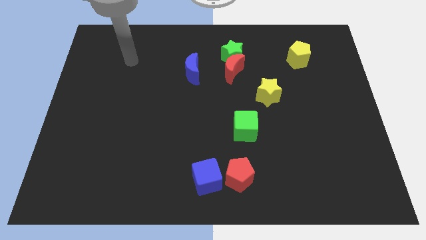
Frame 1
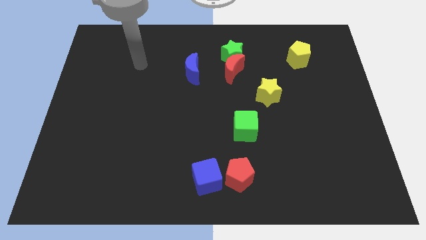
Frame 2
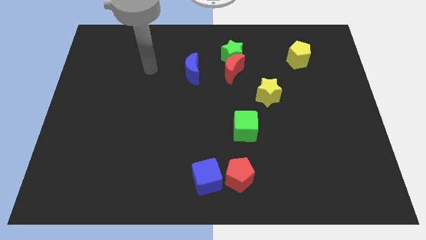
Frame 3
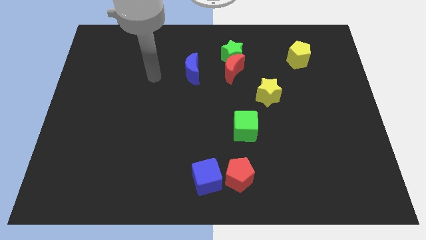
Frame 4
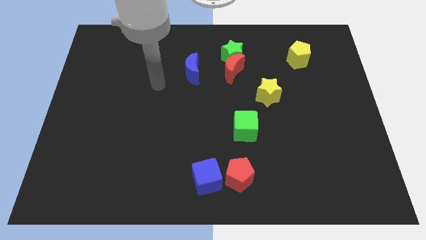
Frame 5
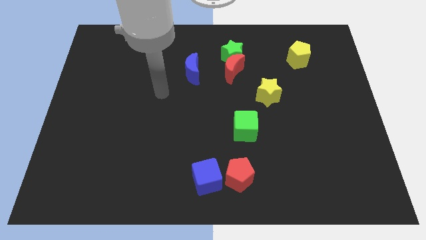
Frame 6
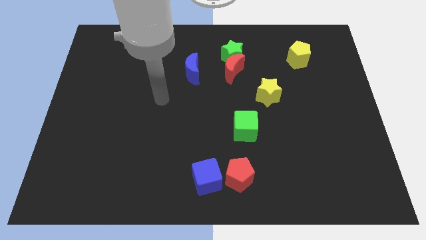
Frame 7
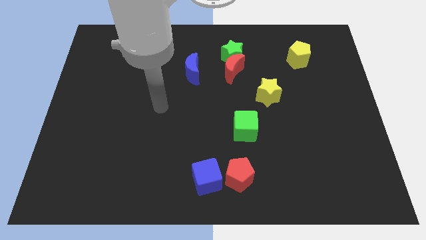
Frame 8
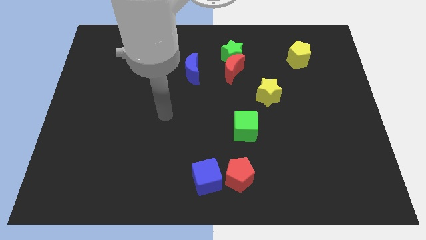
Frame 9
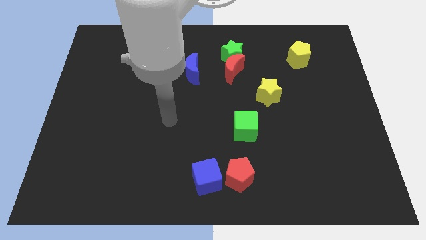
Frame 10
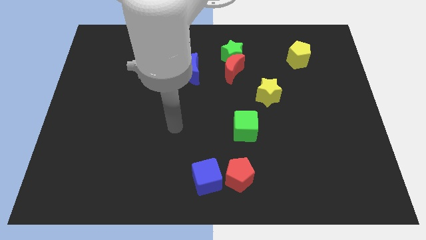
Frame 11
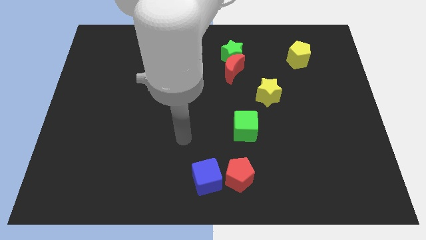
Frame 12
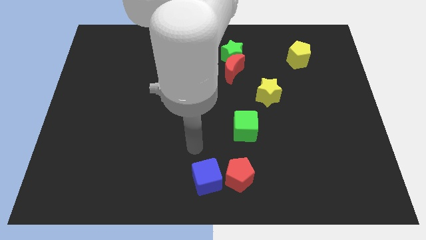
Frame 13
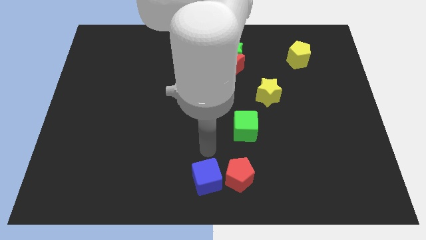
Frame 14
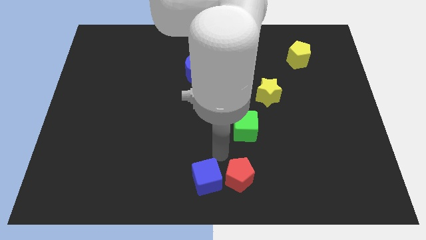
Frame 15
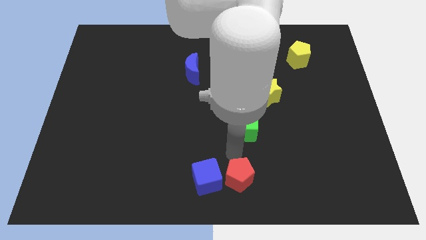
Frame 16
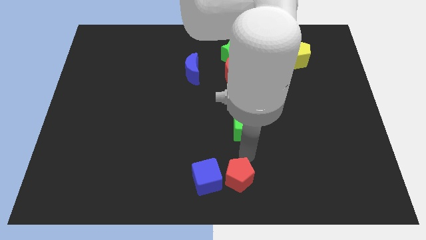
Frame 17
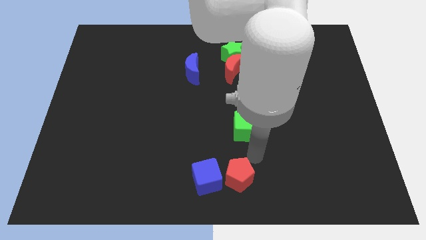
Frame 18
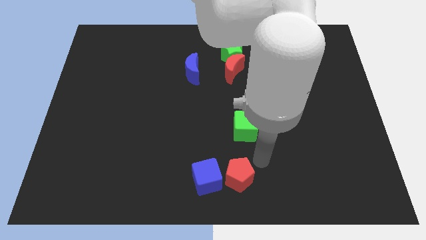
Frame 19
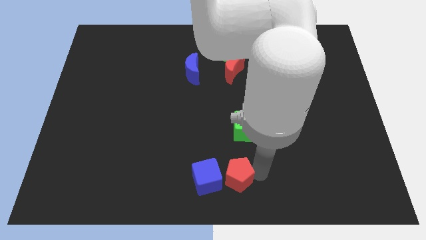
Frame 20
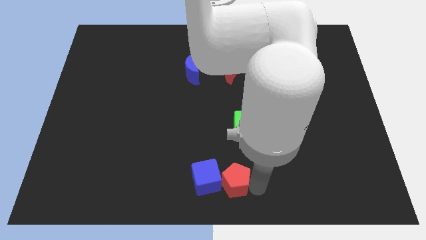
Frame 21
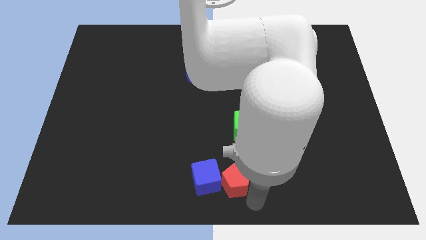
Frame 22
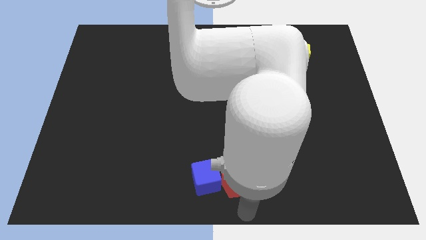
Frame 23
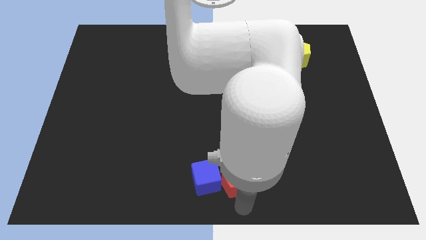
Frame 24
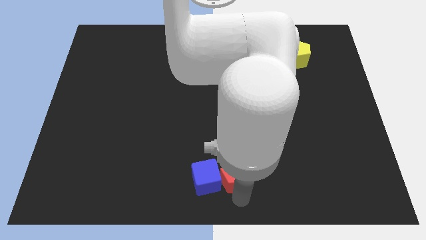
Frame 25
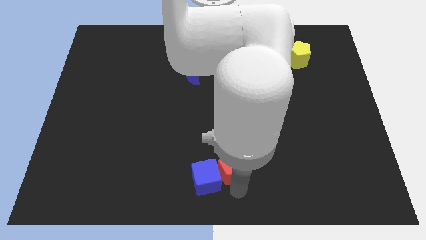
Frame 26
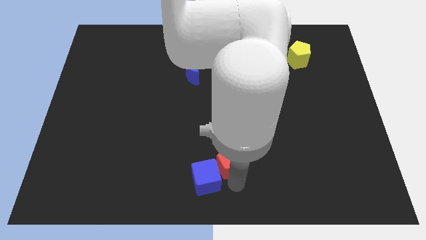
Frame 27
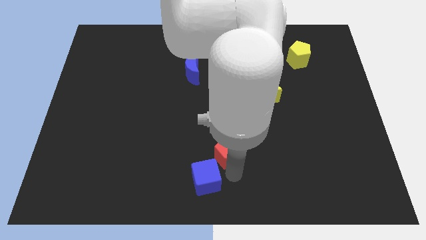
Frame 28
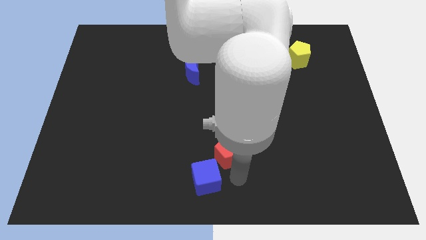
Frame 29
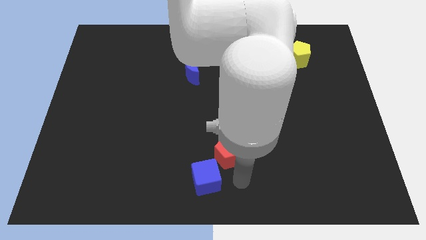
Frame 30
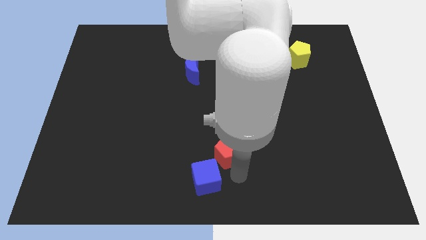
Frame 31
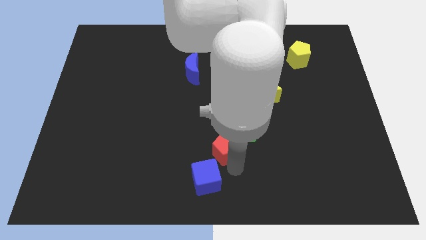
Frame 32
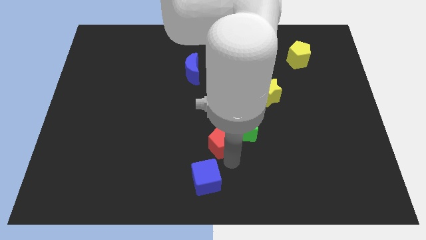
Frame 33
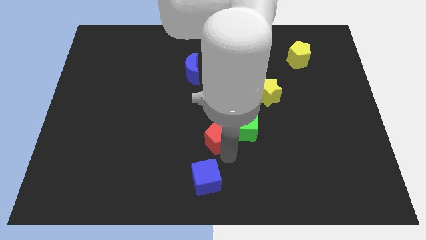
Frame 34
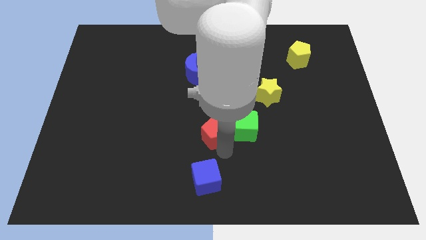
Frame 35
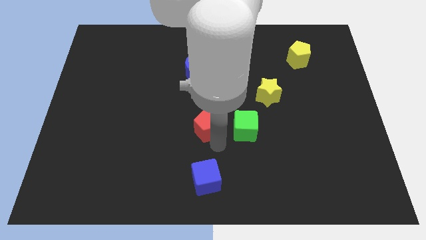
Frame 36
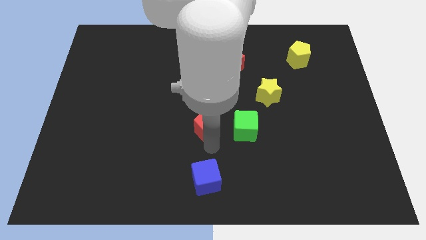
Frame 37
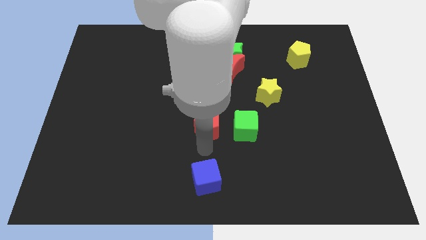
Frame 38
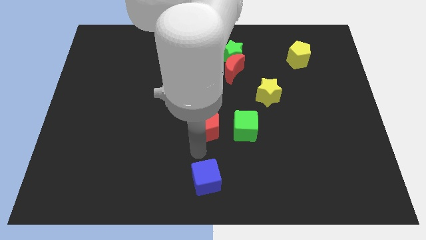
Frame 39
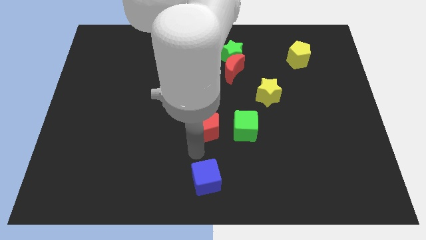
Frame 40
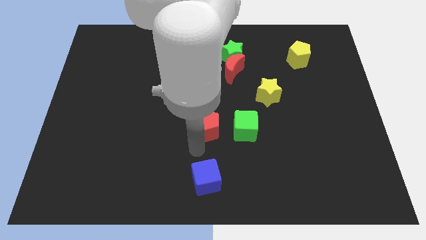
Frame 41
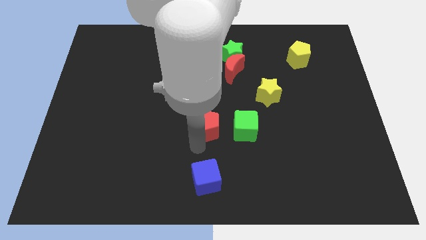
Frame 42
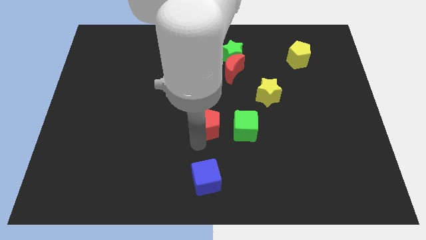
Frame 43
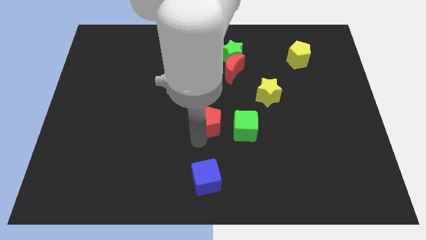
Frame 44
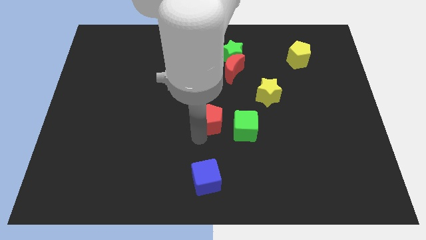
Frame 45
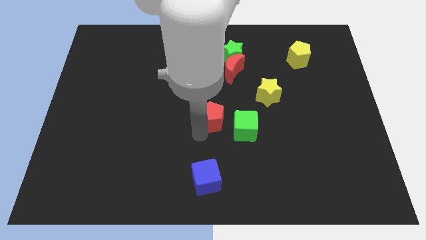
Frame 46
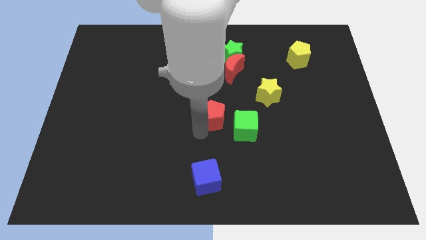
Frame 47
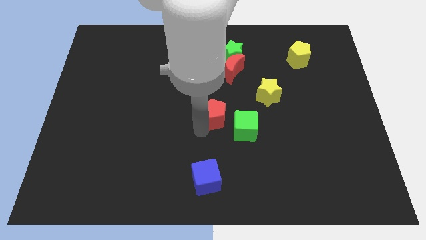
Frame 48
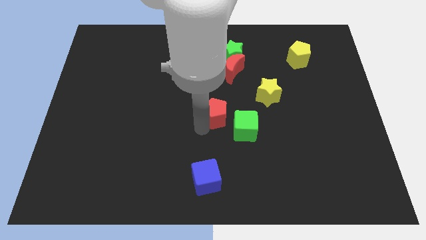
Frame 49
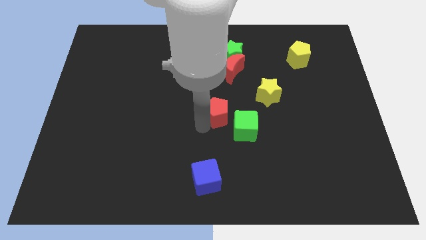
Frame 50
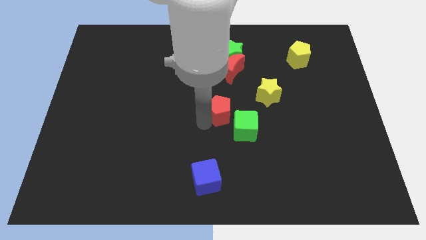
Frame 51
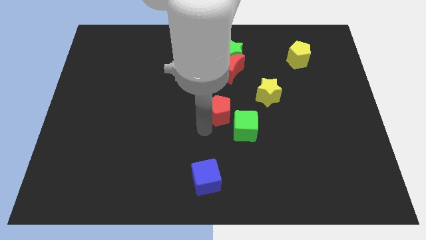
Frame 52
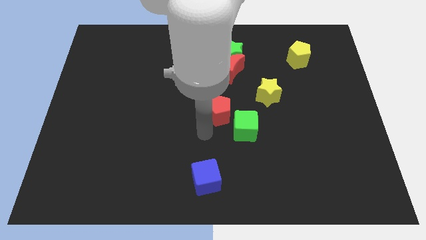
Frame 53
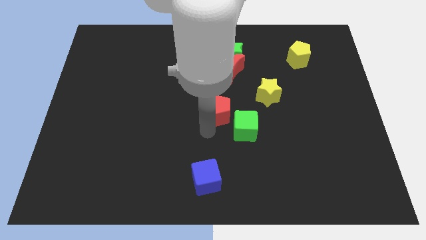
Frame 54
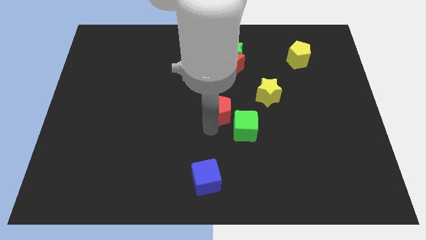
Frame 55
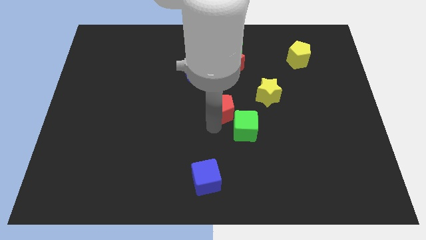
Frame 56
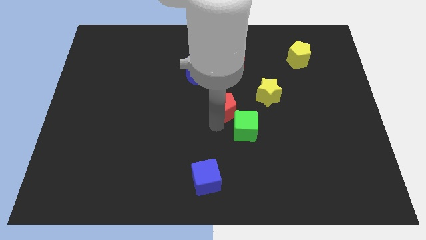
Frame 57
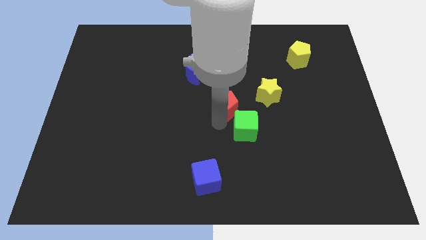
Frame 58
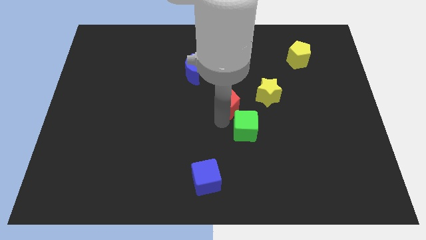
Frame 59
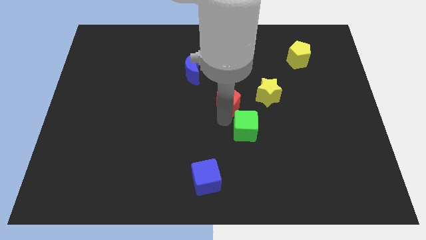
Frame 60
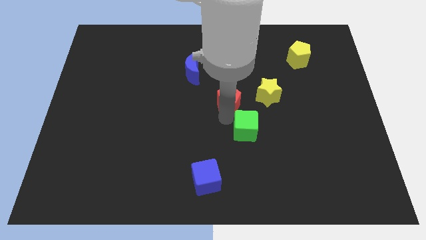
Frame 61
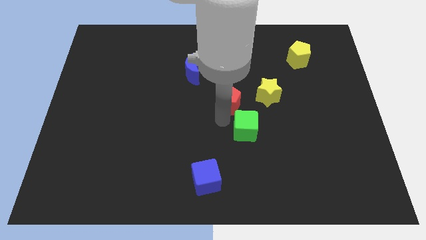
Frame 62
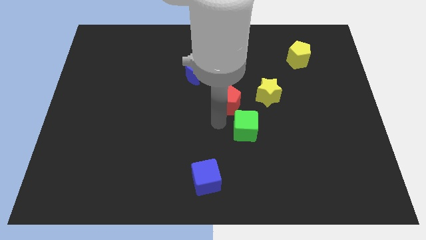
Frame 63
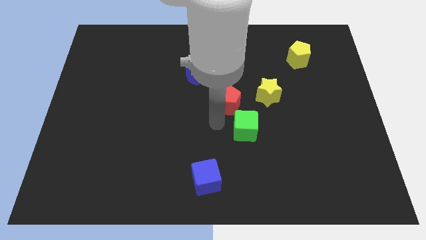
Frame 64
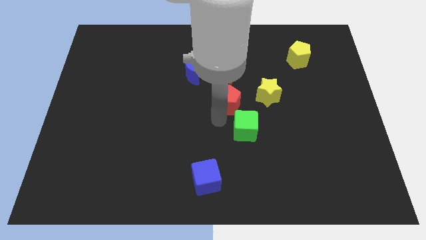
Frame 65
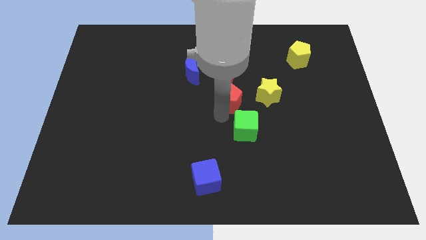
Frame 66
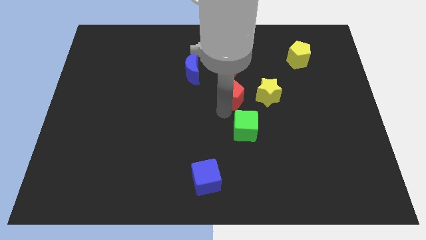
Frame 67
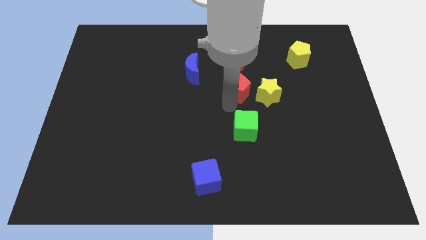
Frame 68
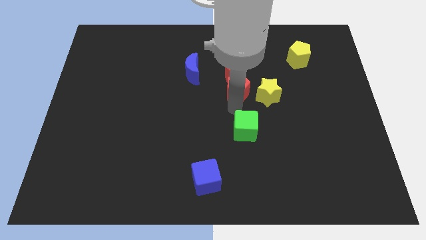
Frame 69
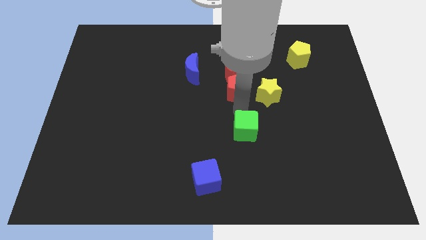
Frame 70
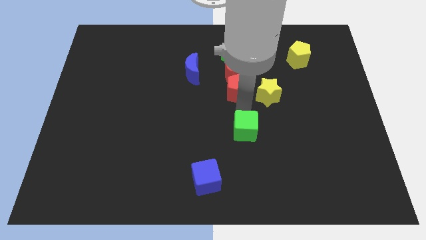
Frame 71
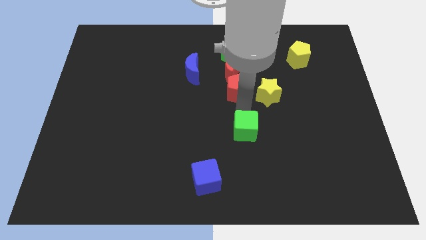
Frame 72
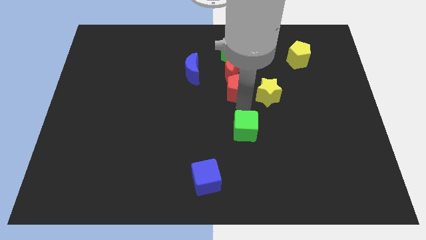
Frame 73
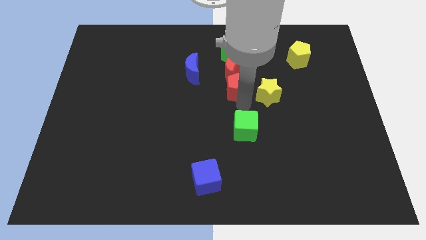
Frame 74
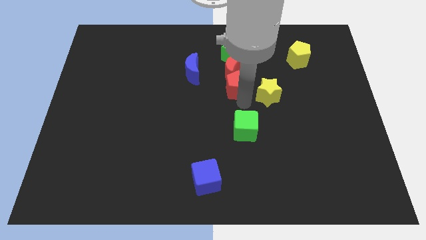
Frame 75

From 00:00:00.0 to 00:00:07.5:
push the red pentagon towards the red moon
